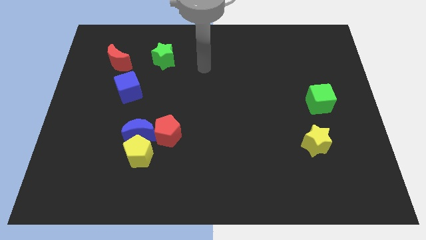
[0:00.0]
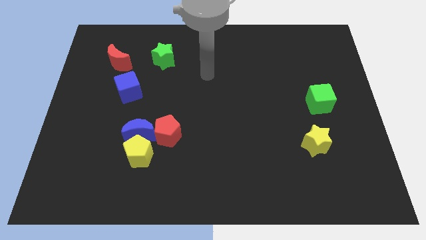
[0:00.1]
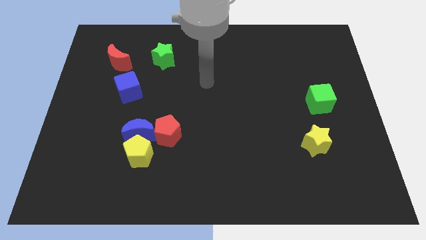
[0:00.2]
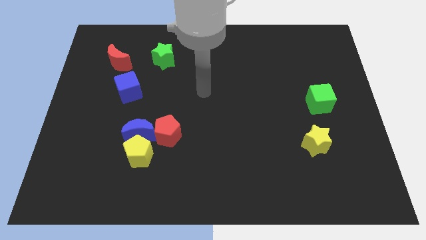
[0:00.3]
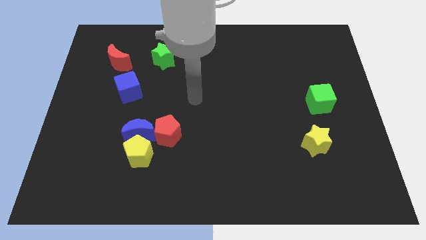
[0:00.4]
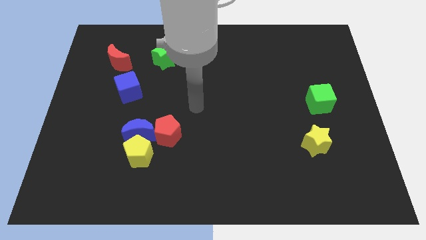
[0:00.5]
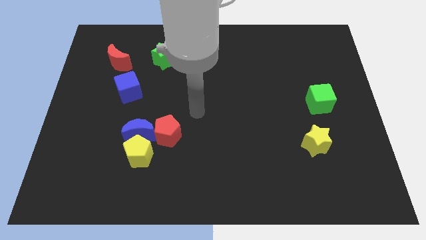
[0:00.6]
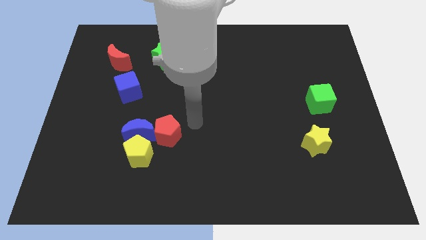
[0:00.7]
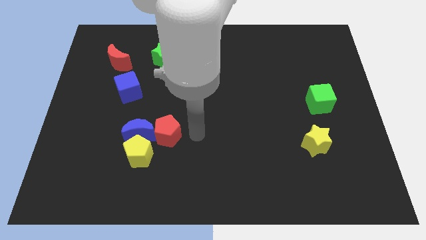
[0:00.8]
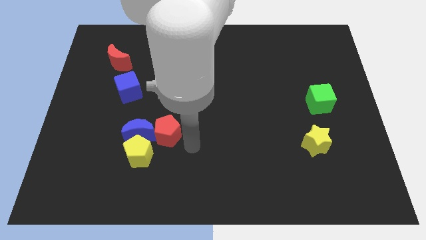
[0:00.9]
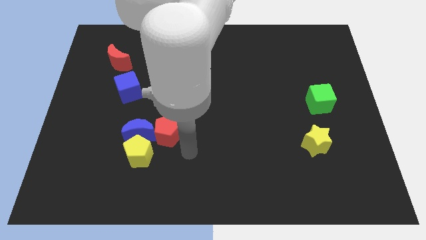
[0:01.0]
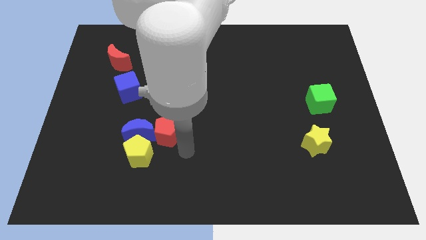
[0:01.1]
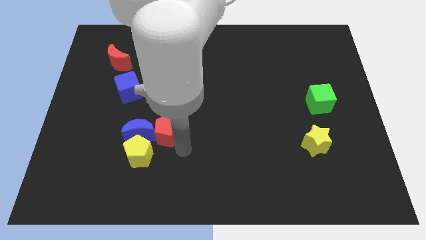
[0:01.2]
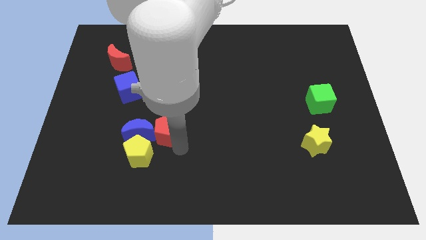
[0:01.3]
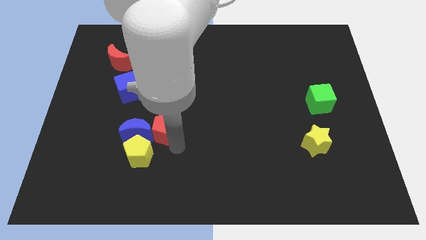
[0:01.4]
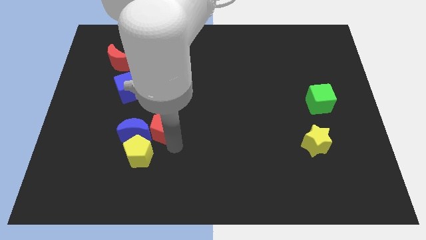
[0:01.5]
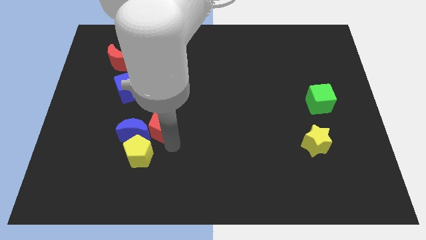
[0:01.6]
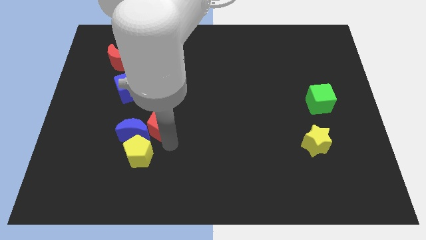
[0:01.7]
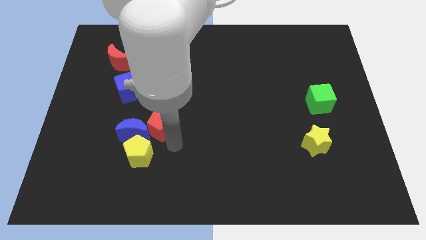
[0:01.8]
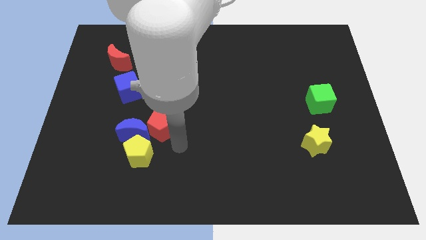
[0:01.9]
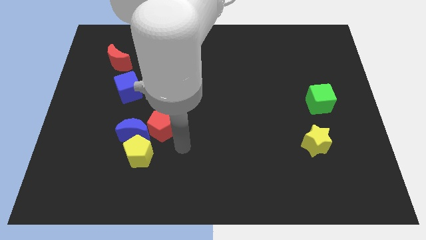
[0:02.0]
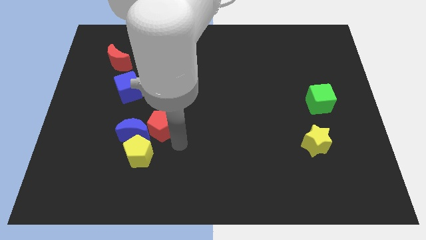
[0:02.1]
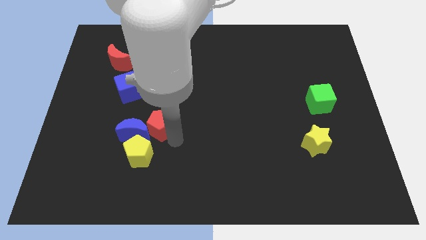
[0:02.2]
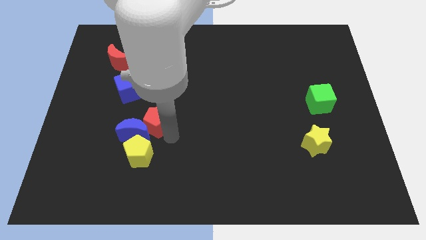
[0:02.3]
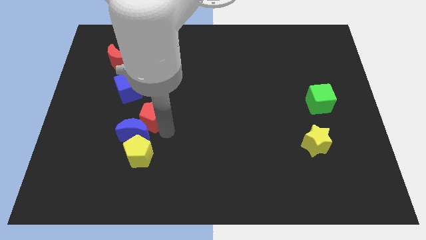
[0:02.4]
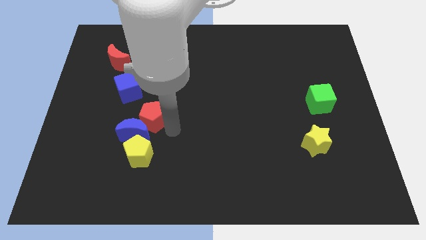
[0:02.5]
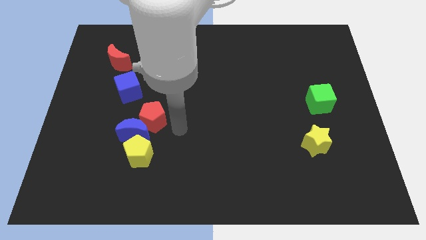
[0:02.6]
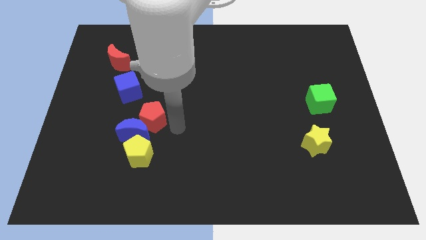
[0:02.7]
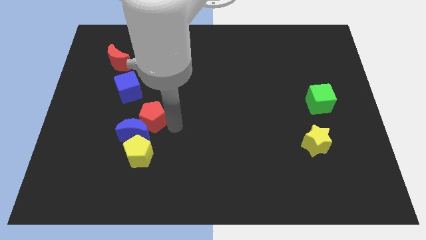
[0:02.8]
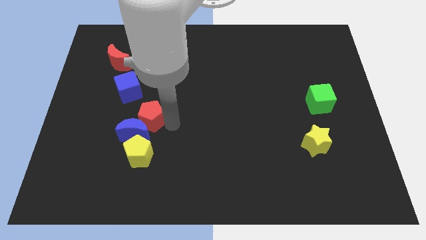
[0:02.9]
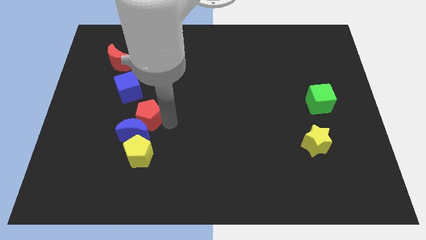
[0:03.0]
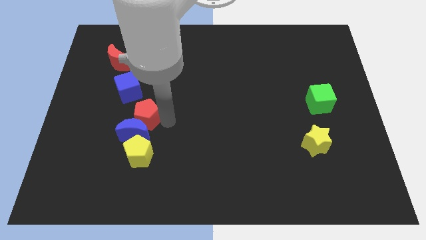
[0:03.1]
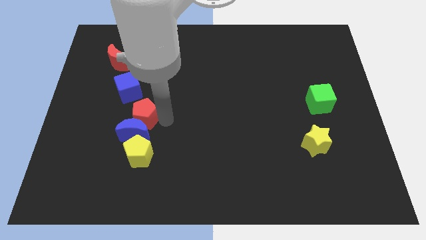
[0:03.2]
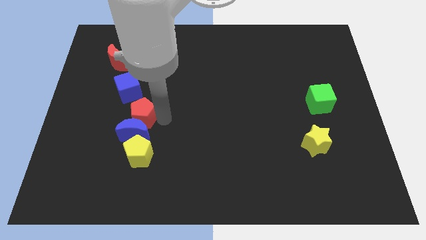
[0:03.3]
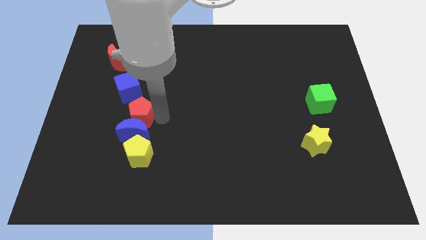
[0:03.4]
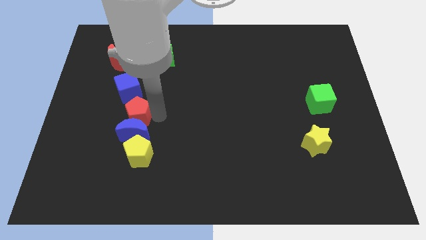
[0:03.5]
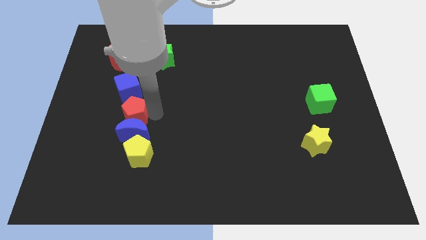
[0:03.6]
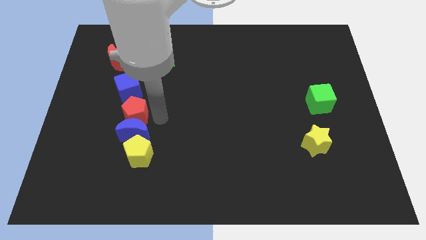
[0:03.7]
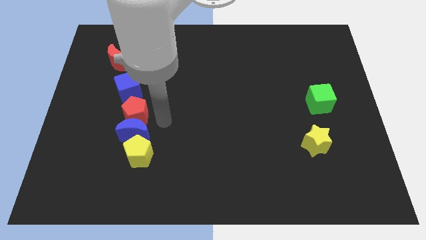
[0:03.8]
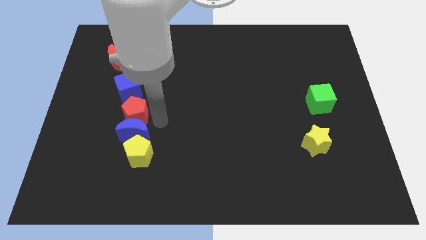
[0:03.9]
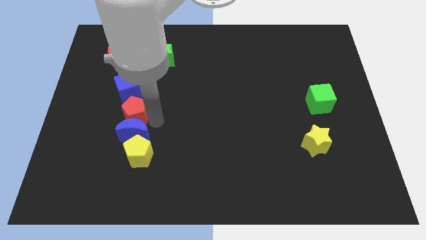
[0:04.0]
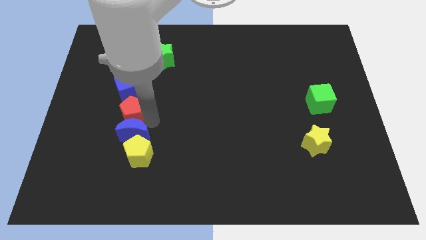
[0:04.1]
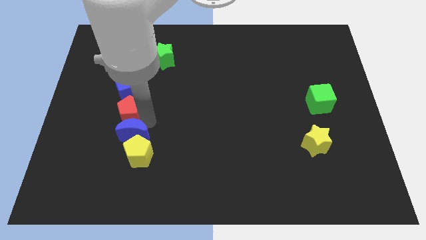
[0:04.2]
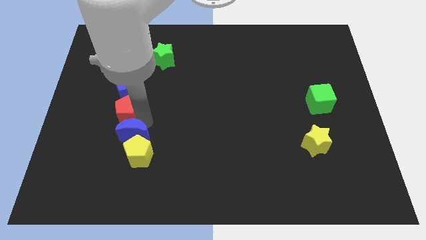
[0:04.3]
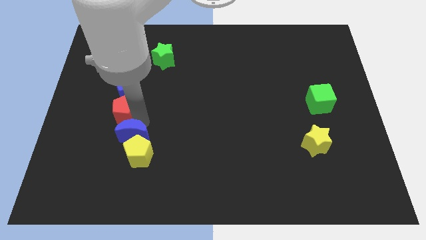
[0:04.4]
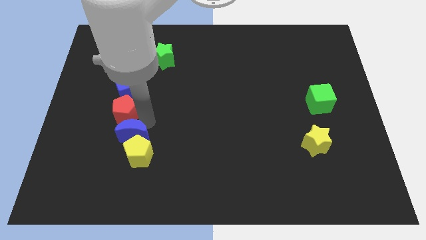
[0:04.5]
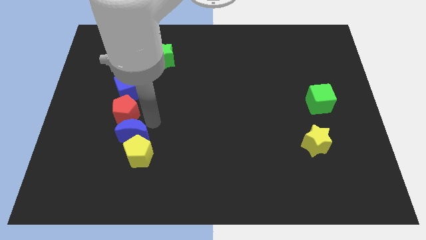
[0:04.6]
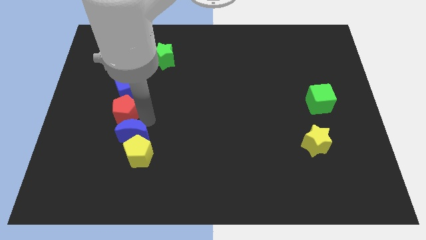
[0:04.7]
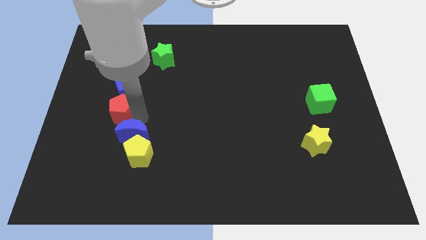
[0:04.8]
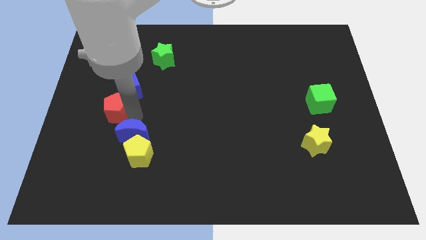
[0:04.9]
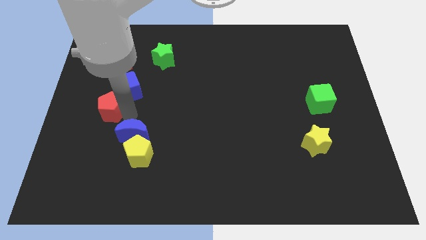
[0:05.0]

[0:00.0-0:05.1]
push the red pentagon to the bottom side of the red moon

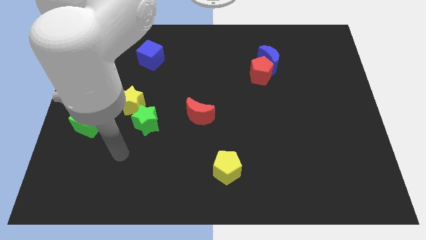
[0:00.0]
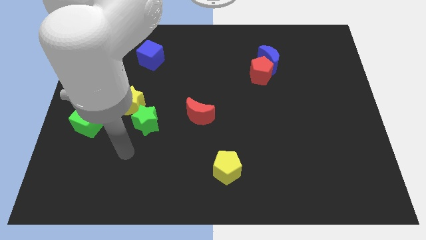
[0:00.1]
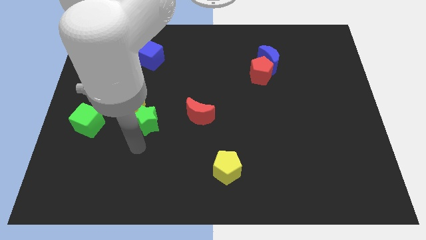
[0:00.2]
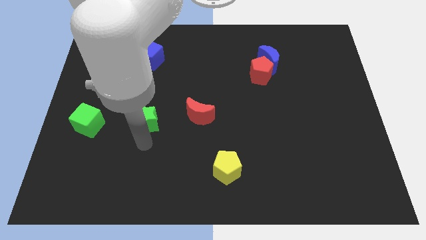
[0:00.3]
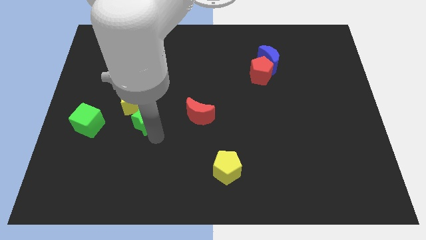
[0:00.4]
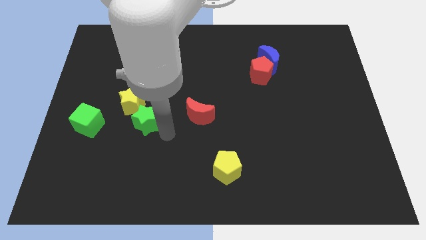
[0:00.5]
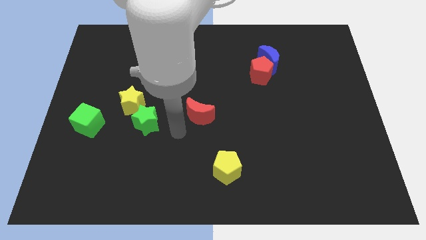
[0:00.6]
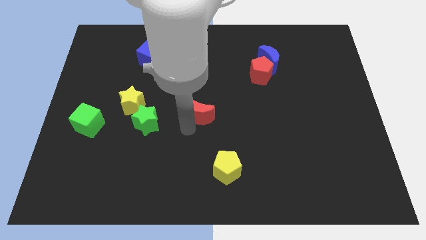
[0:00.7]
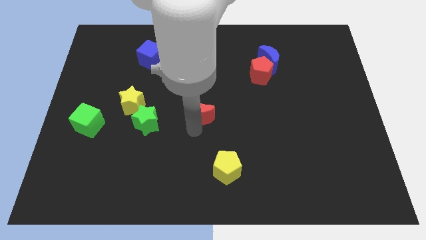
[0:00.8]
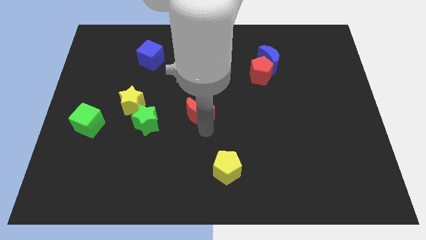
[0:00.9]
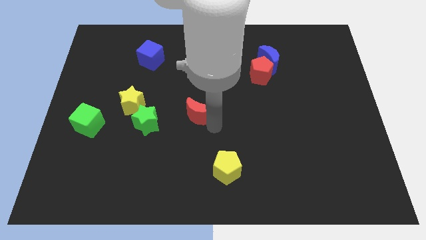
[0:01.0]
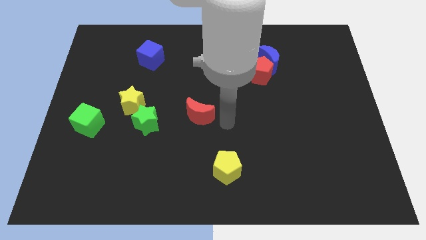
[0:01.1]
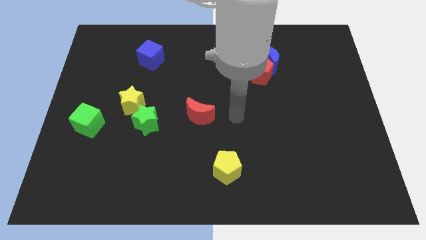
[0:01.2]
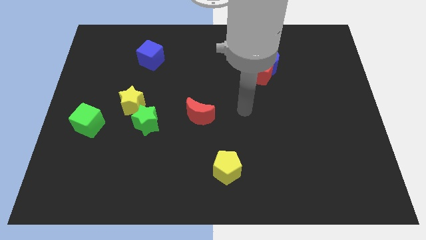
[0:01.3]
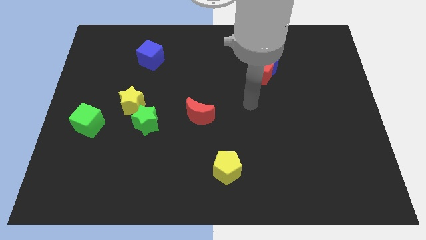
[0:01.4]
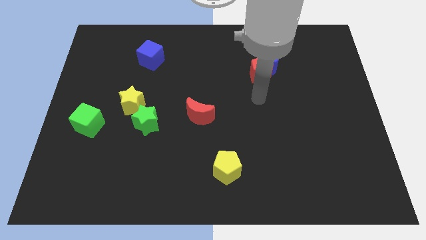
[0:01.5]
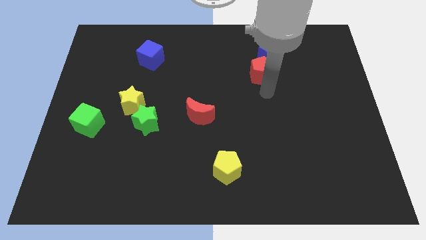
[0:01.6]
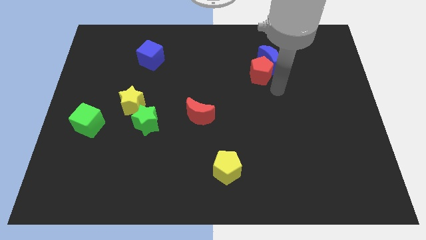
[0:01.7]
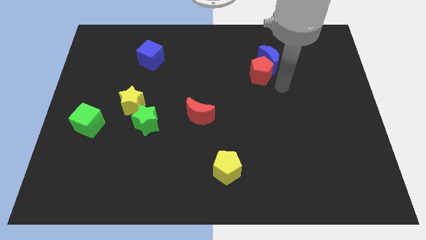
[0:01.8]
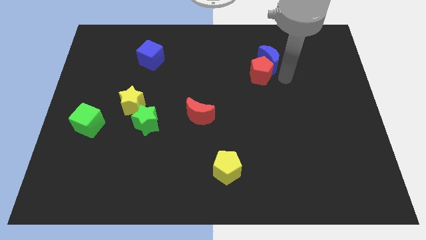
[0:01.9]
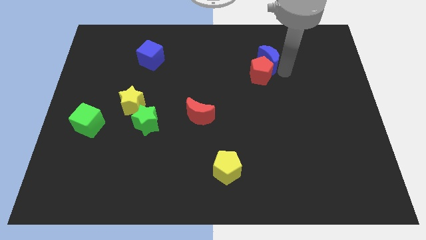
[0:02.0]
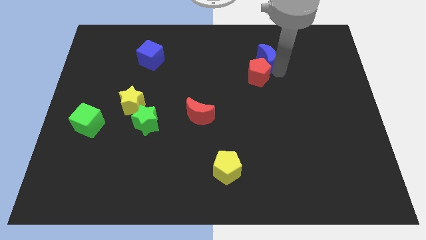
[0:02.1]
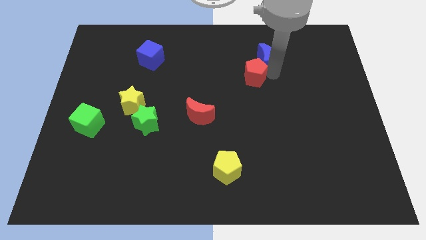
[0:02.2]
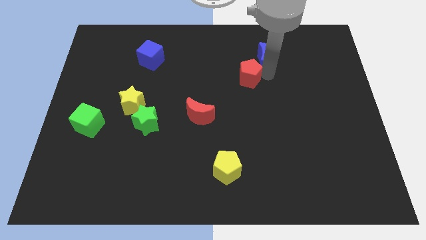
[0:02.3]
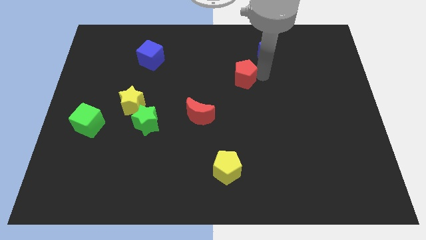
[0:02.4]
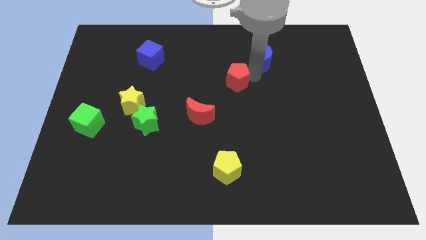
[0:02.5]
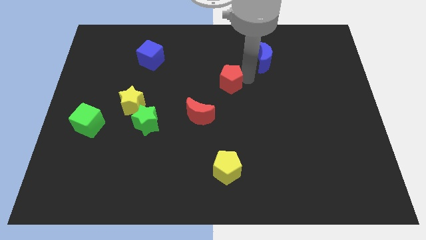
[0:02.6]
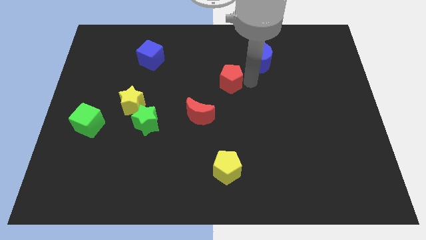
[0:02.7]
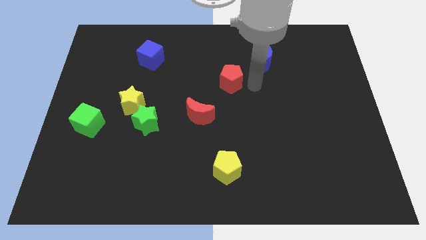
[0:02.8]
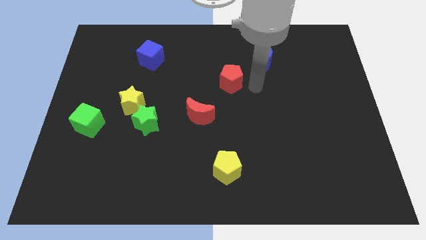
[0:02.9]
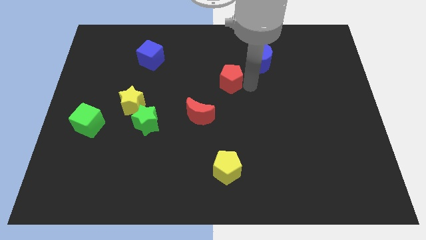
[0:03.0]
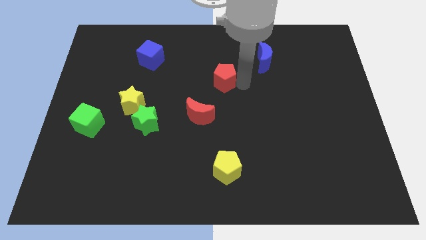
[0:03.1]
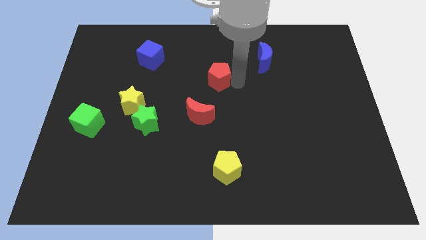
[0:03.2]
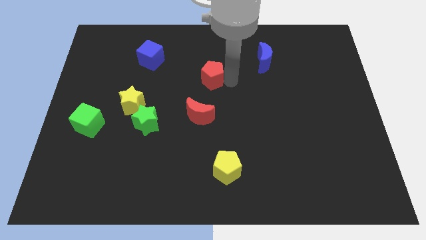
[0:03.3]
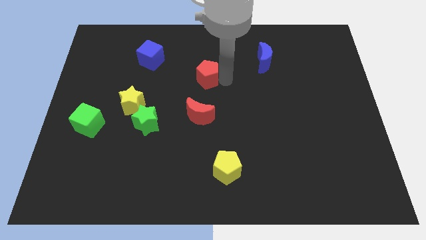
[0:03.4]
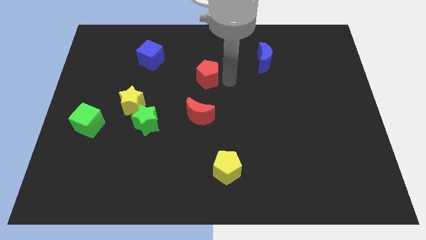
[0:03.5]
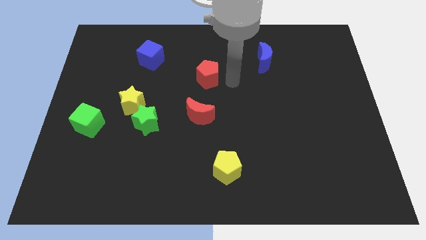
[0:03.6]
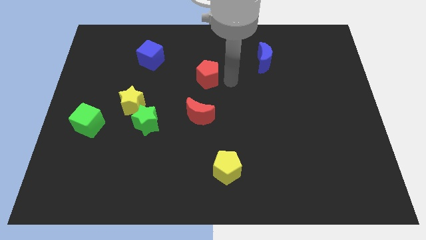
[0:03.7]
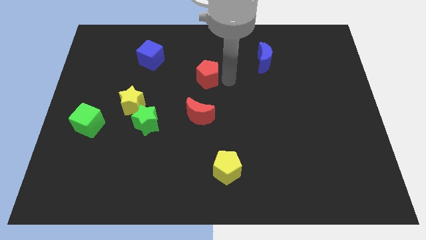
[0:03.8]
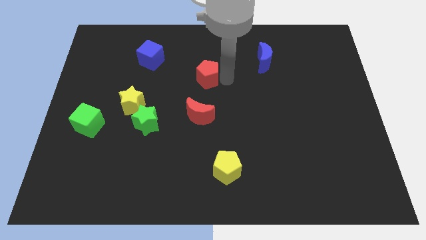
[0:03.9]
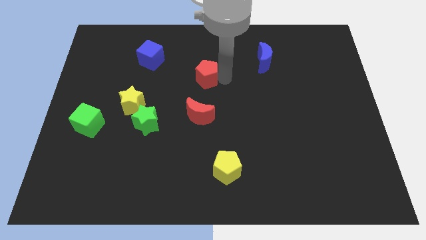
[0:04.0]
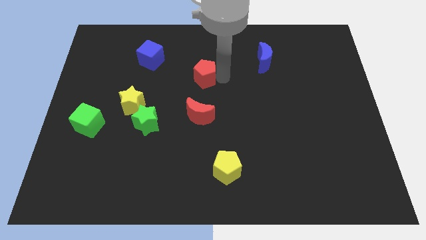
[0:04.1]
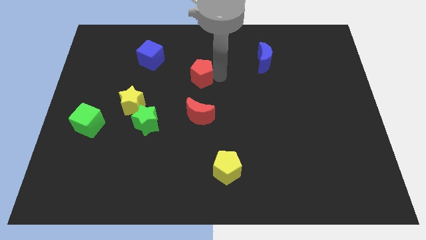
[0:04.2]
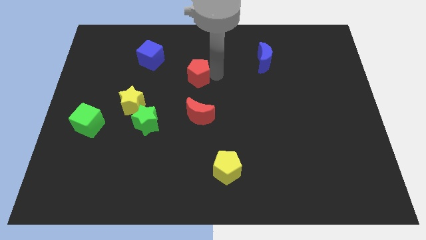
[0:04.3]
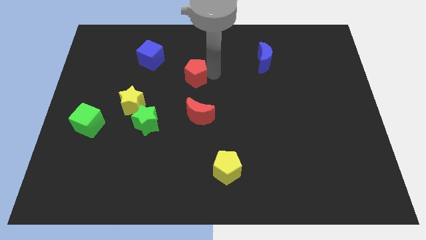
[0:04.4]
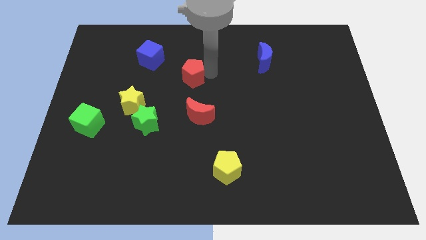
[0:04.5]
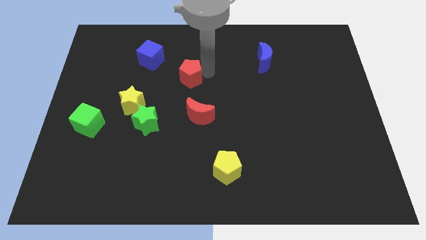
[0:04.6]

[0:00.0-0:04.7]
put the red pentagon to the bottom right side of the blue cube
